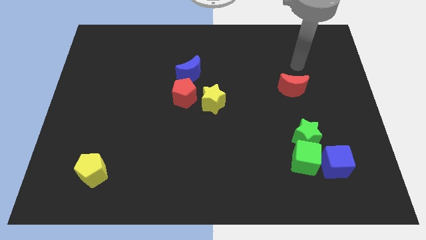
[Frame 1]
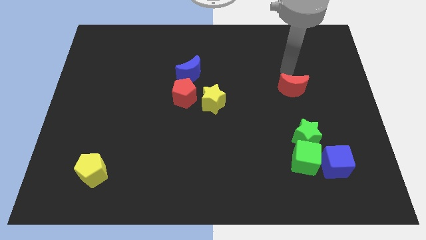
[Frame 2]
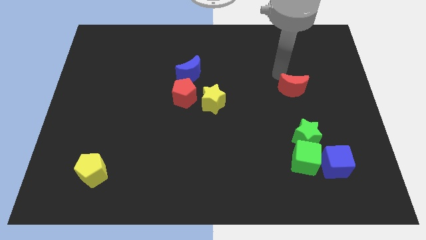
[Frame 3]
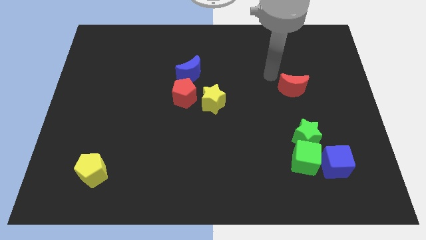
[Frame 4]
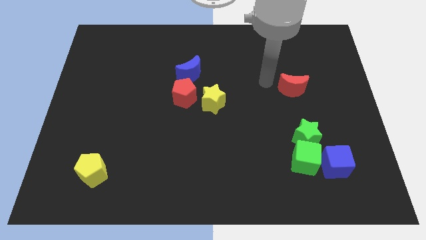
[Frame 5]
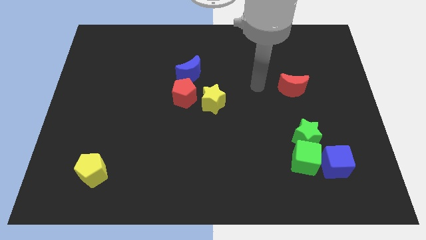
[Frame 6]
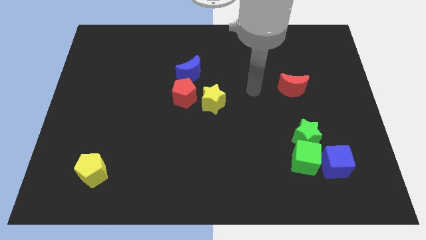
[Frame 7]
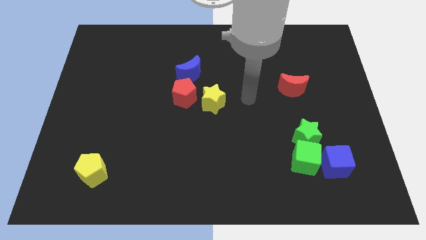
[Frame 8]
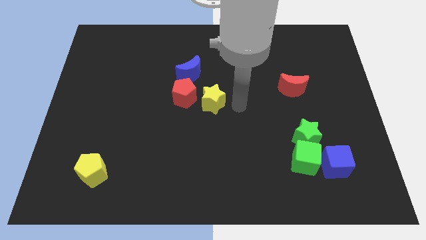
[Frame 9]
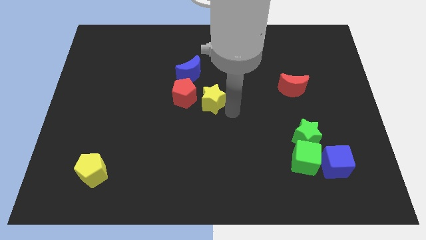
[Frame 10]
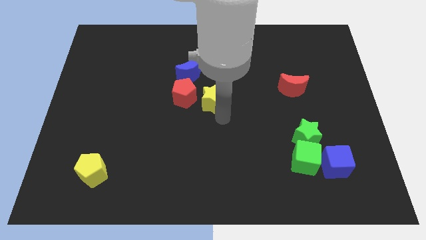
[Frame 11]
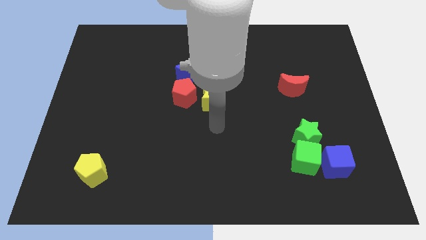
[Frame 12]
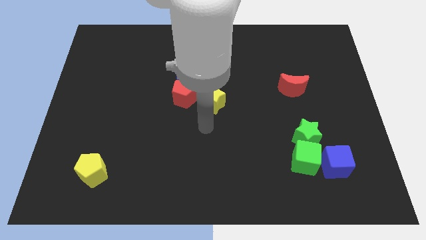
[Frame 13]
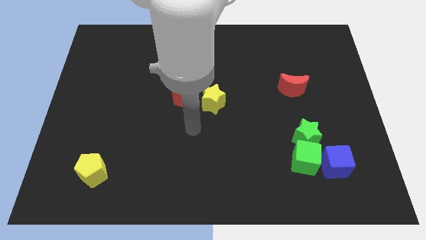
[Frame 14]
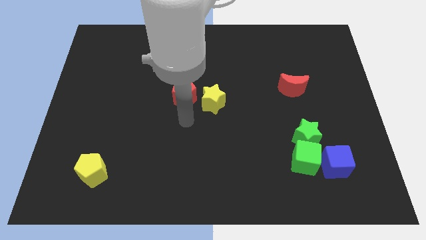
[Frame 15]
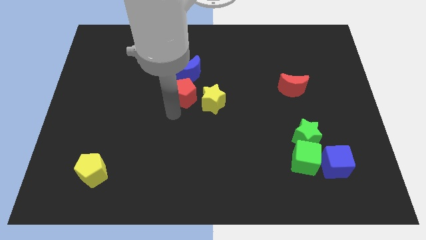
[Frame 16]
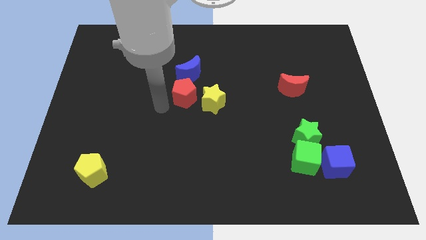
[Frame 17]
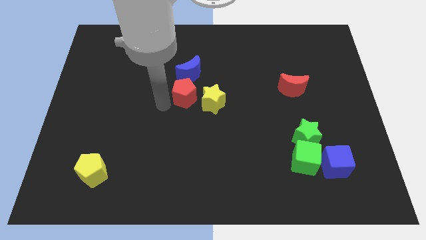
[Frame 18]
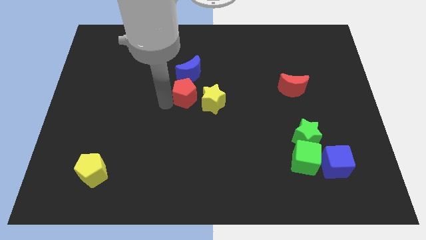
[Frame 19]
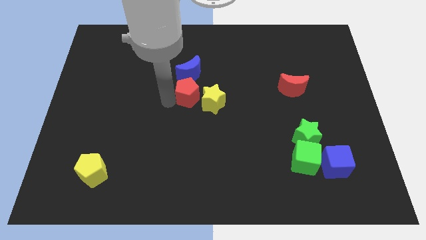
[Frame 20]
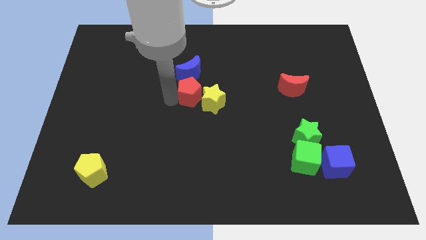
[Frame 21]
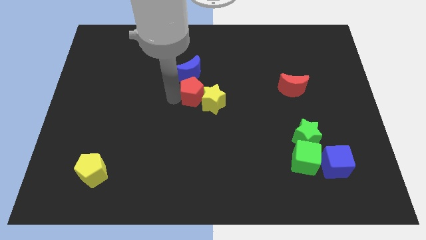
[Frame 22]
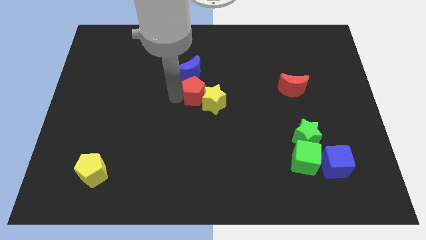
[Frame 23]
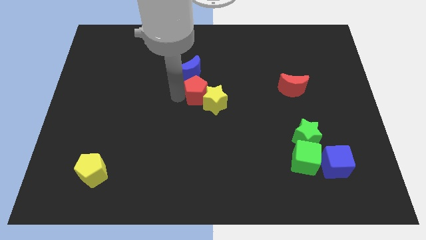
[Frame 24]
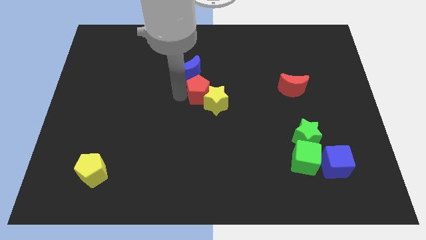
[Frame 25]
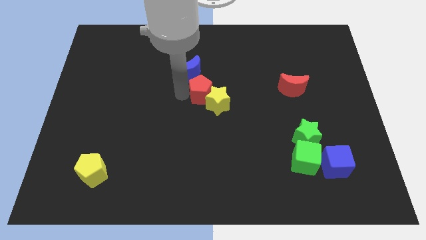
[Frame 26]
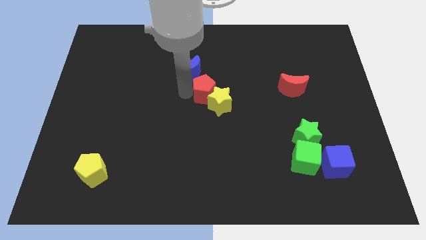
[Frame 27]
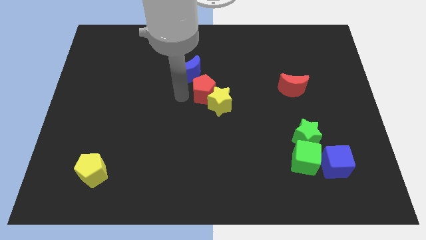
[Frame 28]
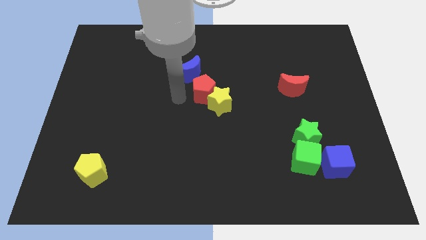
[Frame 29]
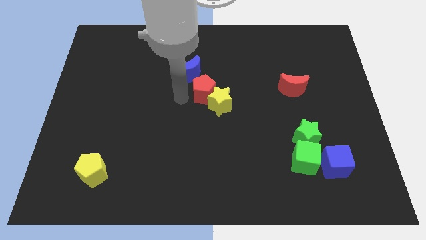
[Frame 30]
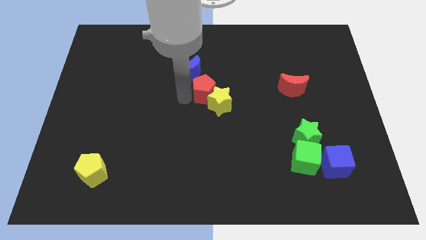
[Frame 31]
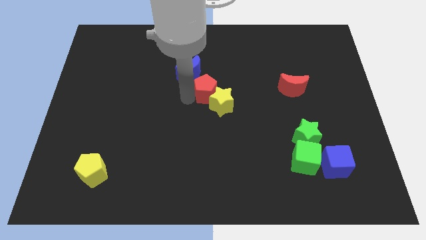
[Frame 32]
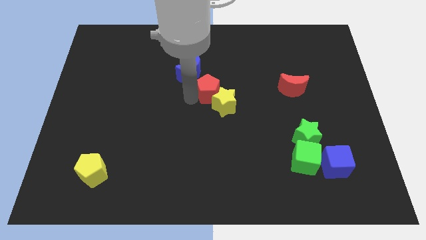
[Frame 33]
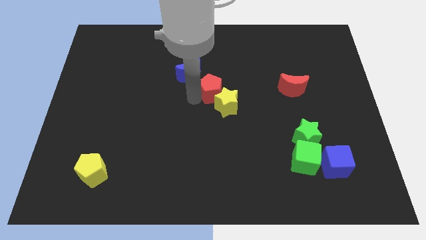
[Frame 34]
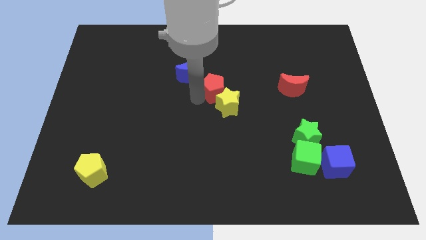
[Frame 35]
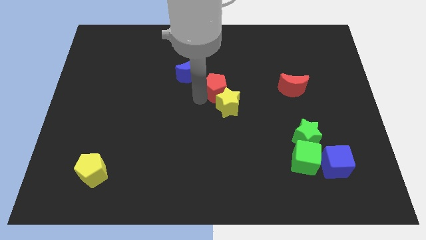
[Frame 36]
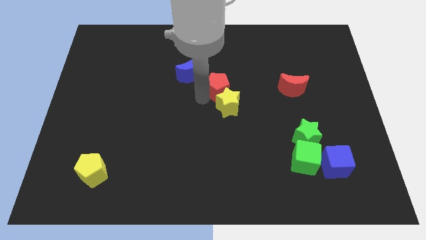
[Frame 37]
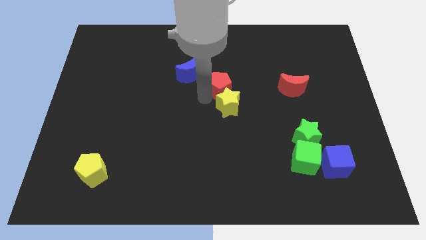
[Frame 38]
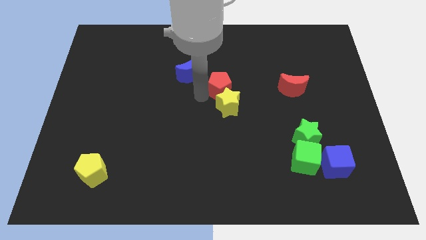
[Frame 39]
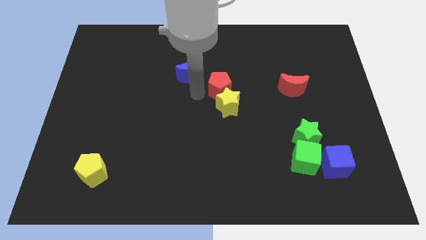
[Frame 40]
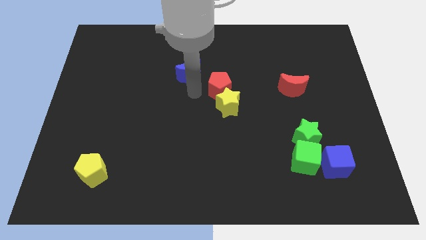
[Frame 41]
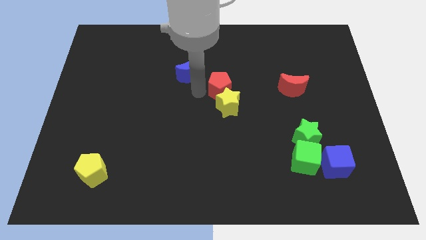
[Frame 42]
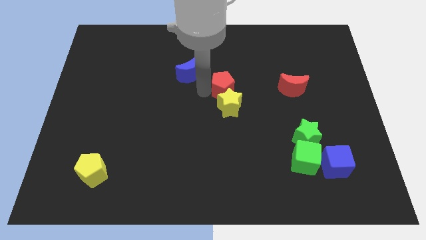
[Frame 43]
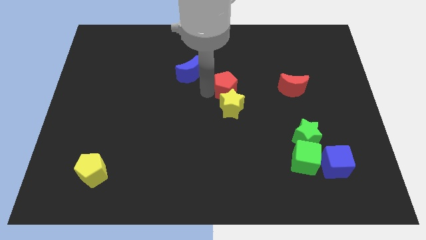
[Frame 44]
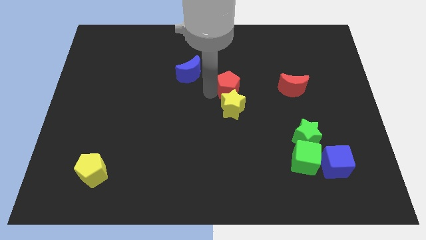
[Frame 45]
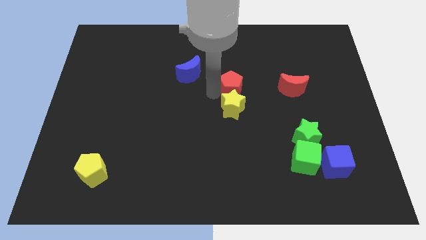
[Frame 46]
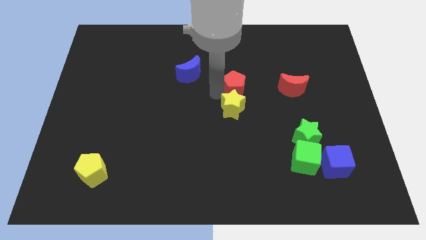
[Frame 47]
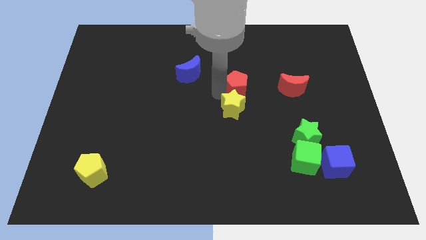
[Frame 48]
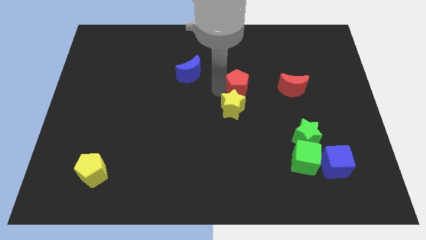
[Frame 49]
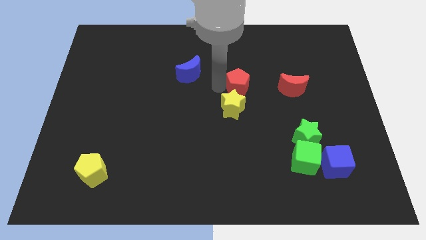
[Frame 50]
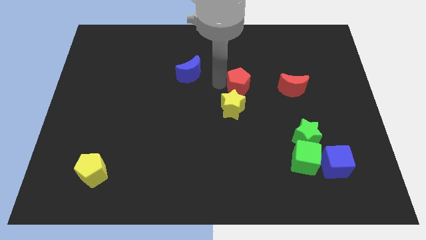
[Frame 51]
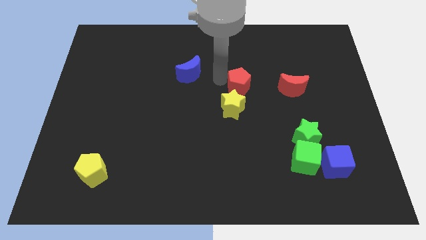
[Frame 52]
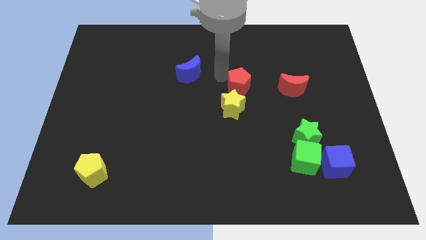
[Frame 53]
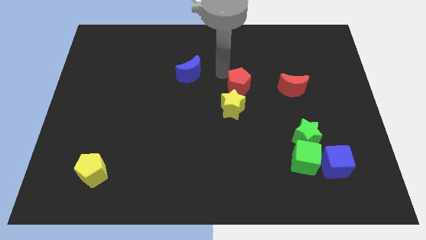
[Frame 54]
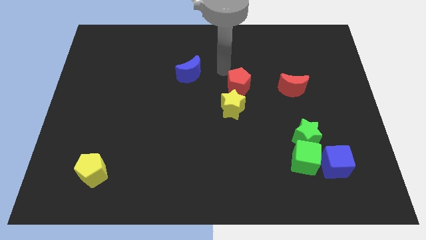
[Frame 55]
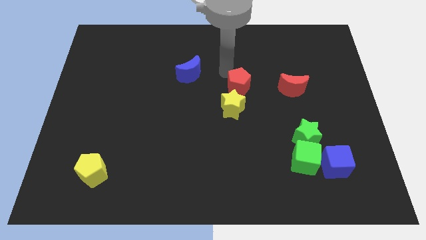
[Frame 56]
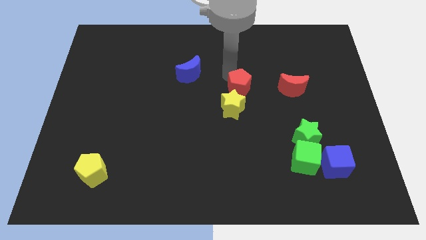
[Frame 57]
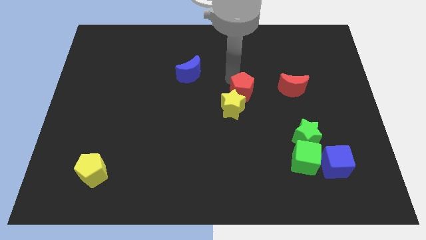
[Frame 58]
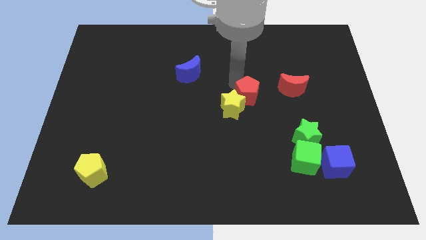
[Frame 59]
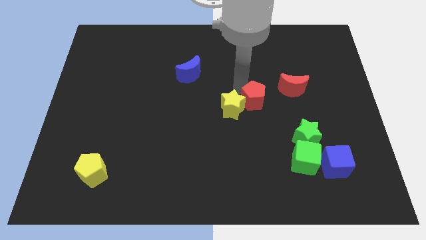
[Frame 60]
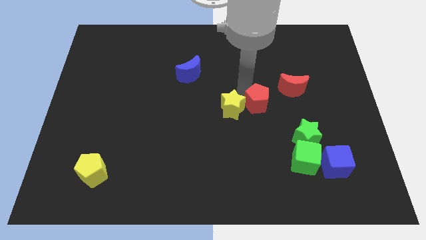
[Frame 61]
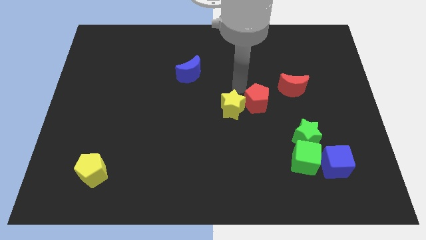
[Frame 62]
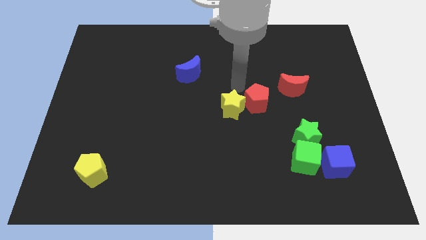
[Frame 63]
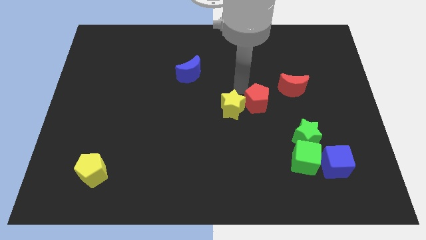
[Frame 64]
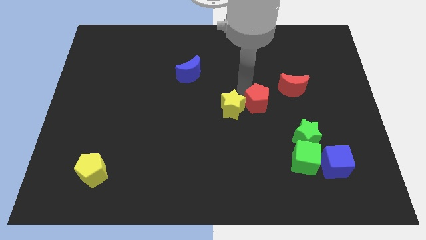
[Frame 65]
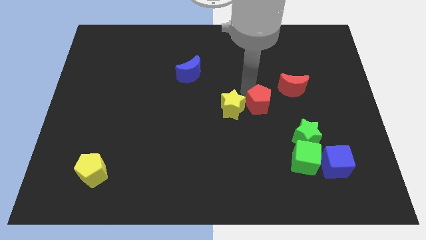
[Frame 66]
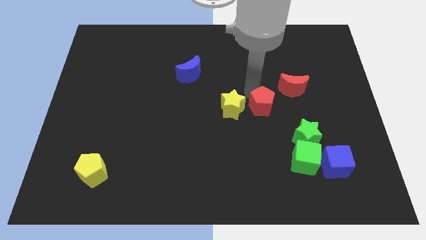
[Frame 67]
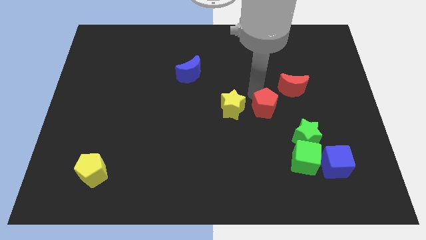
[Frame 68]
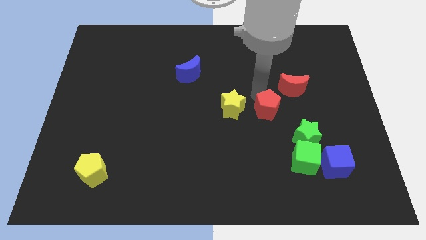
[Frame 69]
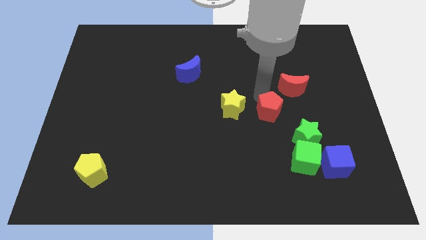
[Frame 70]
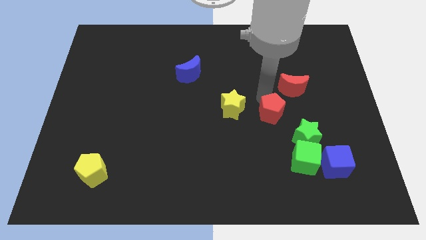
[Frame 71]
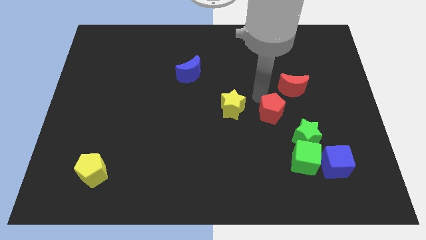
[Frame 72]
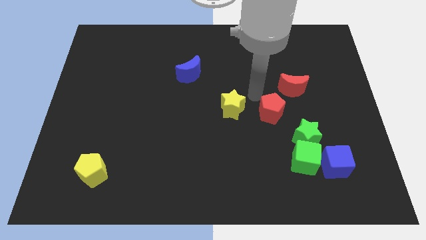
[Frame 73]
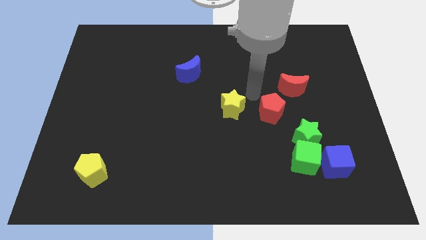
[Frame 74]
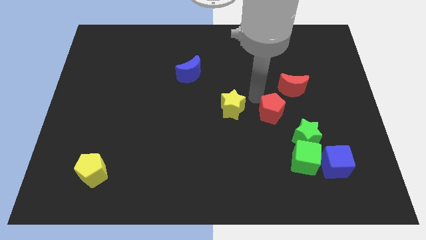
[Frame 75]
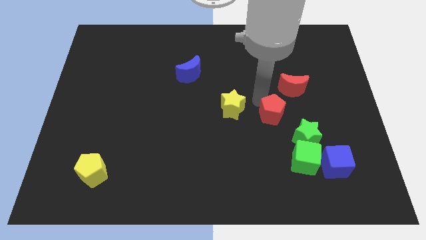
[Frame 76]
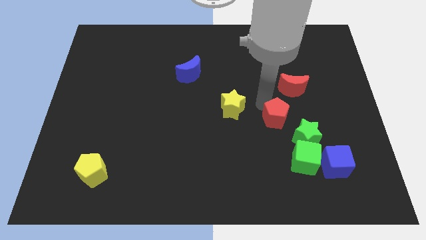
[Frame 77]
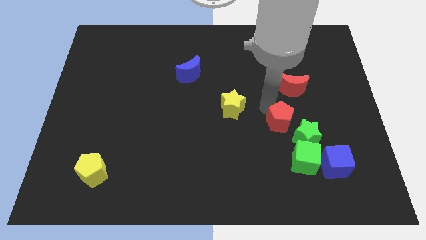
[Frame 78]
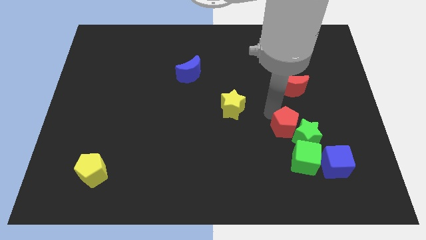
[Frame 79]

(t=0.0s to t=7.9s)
slide the red pentagon towards the green star
